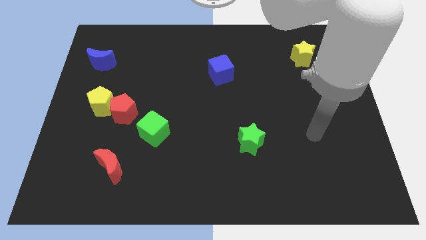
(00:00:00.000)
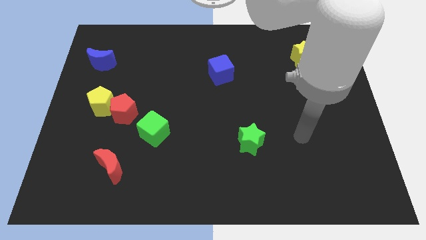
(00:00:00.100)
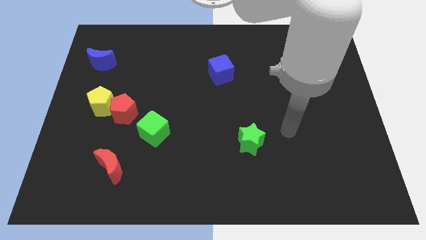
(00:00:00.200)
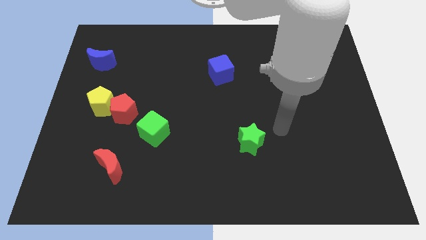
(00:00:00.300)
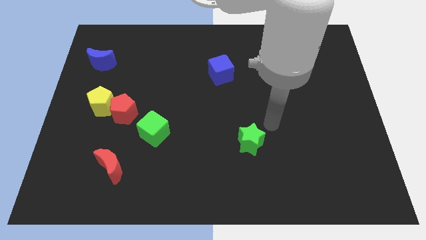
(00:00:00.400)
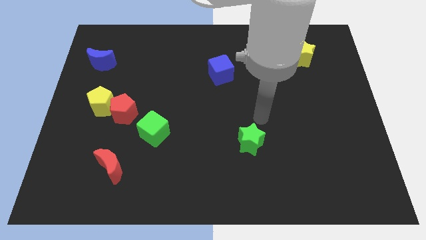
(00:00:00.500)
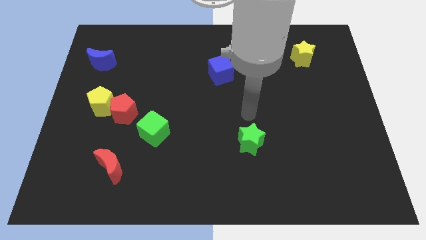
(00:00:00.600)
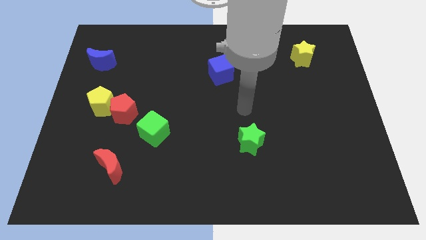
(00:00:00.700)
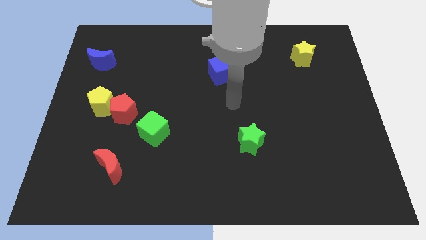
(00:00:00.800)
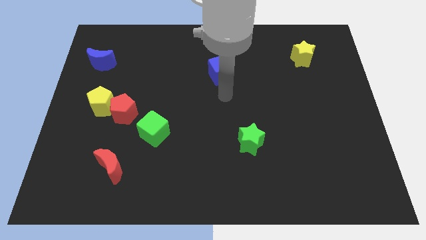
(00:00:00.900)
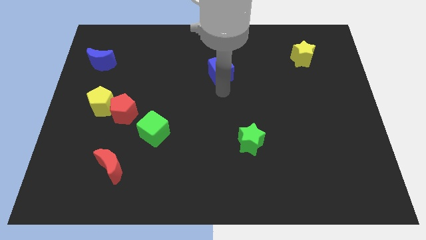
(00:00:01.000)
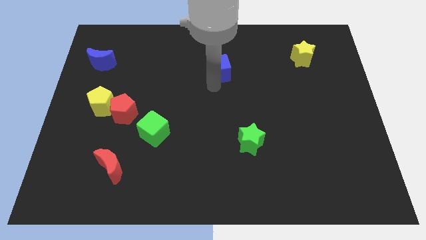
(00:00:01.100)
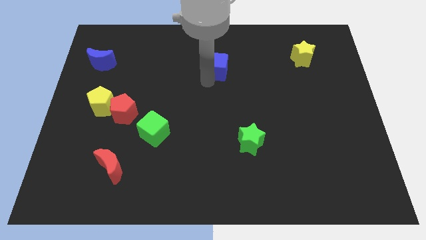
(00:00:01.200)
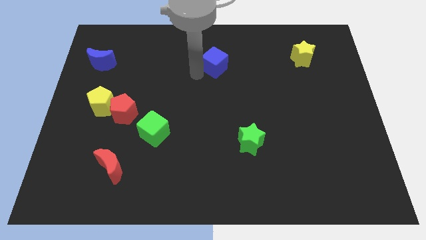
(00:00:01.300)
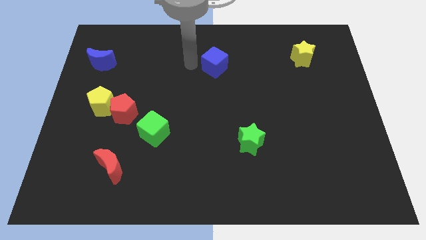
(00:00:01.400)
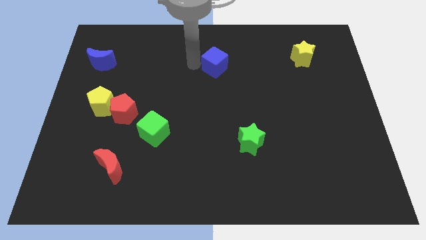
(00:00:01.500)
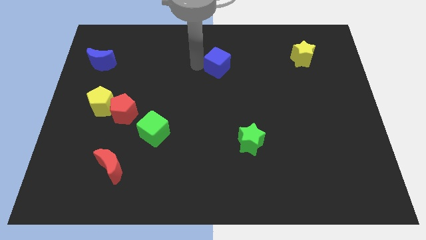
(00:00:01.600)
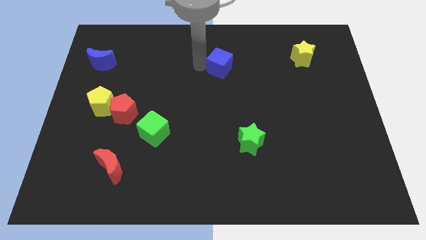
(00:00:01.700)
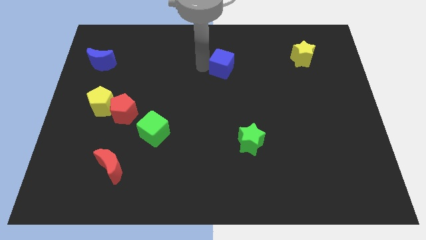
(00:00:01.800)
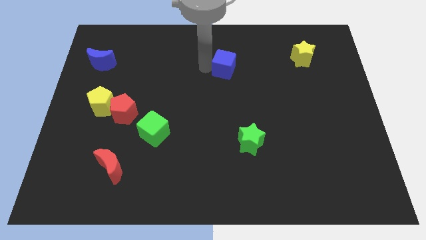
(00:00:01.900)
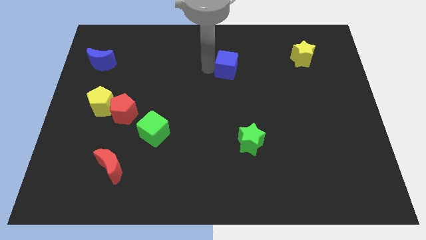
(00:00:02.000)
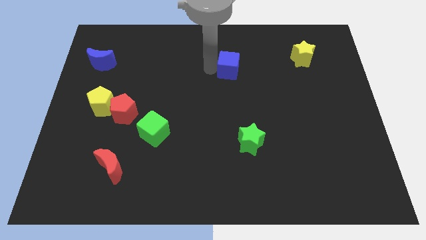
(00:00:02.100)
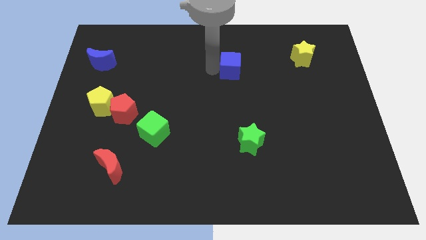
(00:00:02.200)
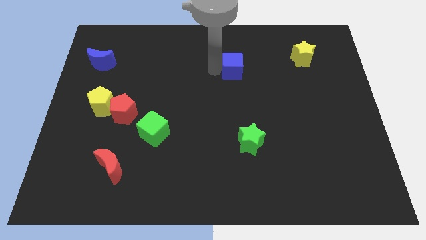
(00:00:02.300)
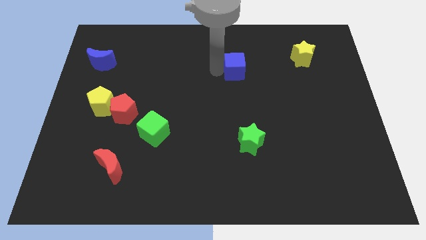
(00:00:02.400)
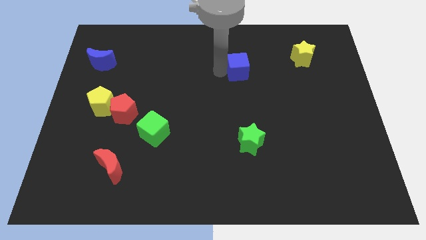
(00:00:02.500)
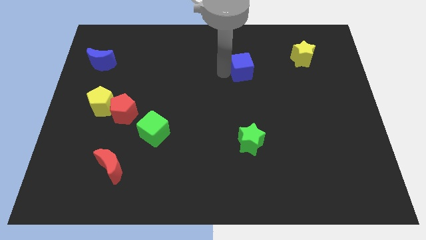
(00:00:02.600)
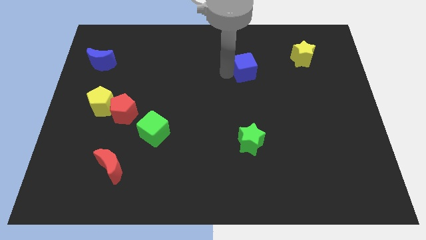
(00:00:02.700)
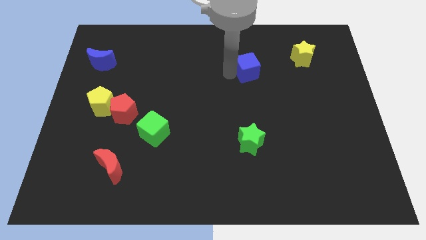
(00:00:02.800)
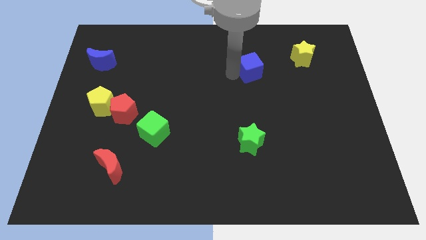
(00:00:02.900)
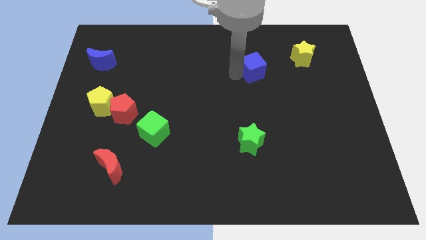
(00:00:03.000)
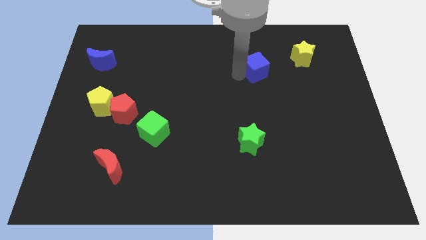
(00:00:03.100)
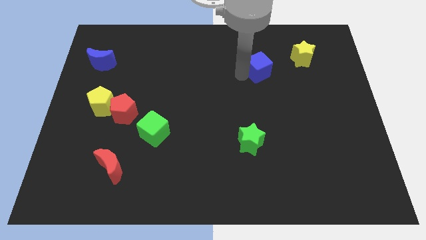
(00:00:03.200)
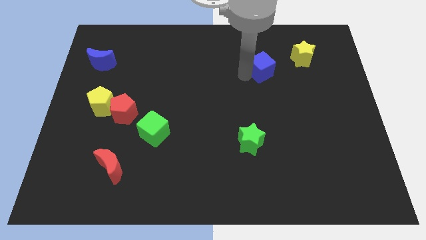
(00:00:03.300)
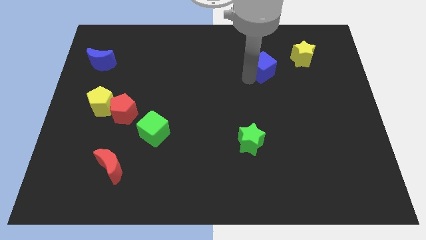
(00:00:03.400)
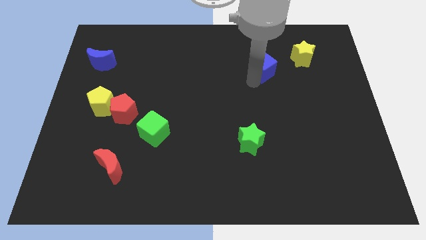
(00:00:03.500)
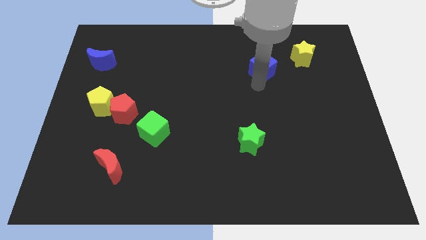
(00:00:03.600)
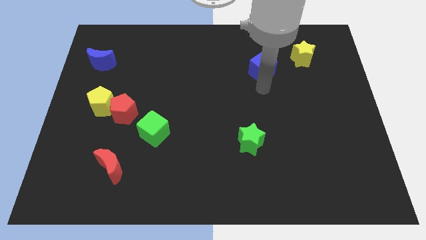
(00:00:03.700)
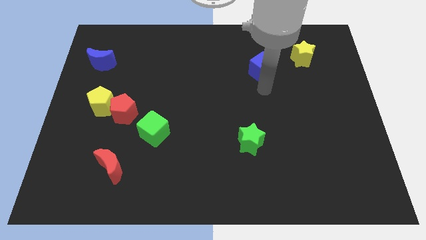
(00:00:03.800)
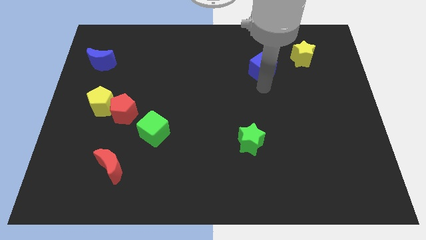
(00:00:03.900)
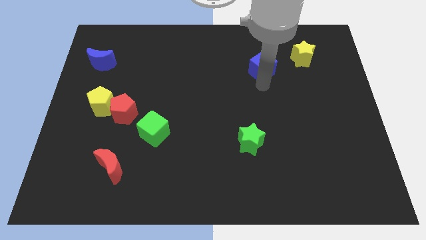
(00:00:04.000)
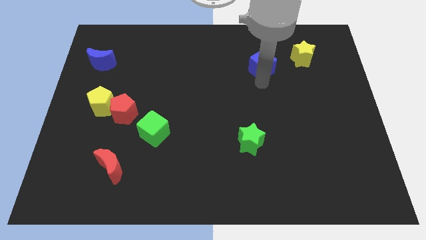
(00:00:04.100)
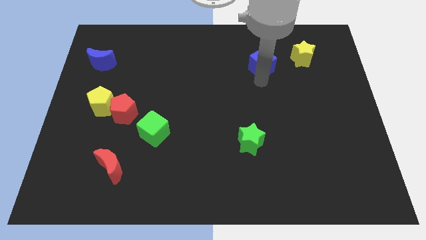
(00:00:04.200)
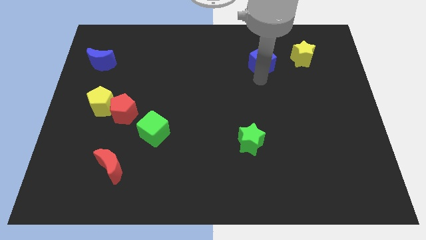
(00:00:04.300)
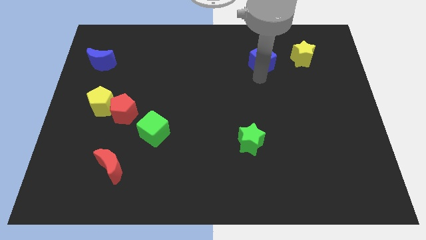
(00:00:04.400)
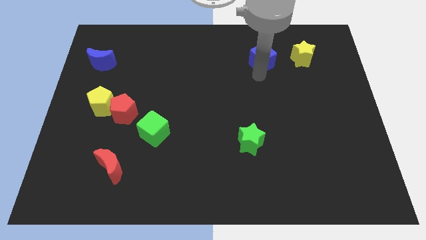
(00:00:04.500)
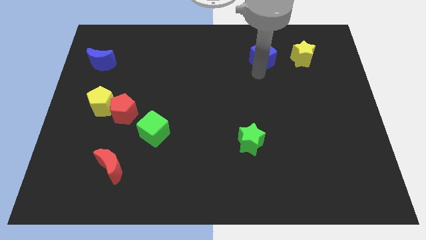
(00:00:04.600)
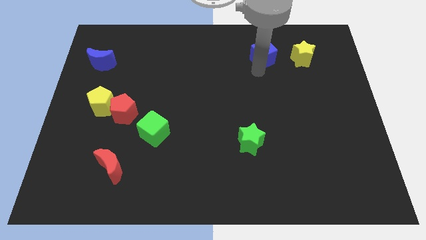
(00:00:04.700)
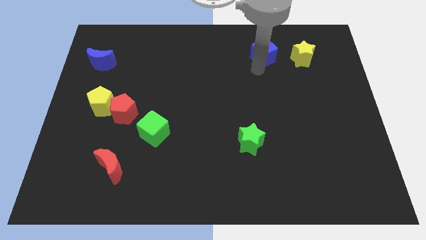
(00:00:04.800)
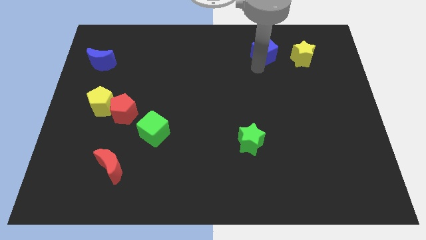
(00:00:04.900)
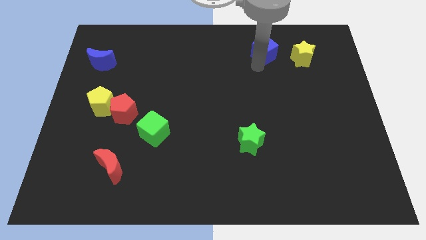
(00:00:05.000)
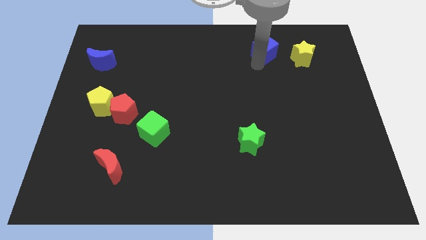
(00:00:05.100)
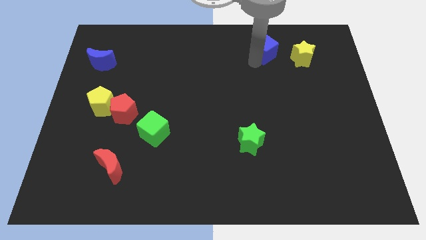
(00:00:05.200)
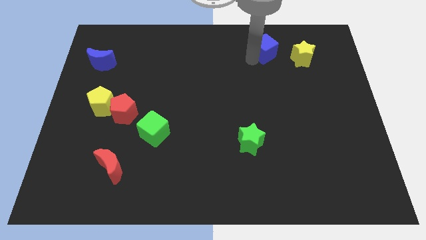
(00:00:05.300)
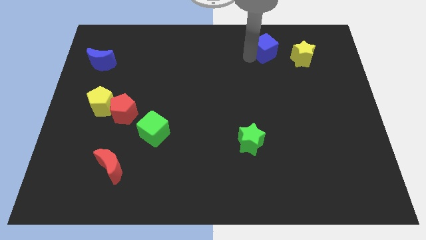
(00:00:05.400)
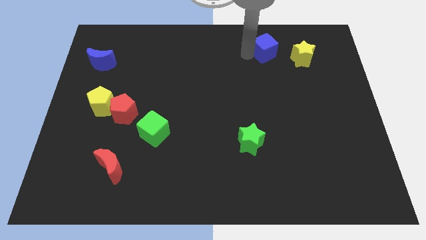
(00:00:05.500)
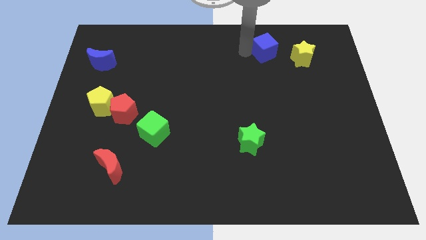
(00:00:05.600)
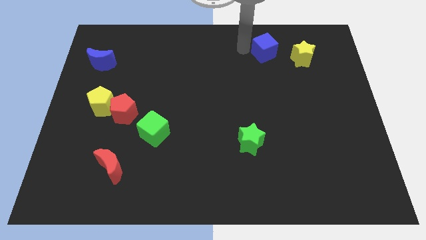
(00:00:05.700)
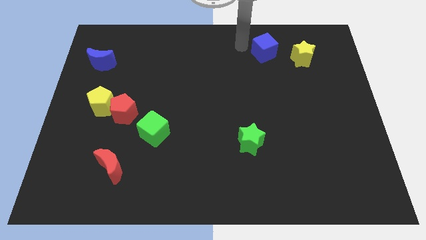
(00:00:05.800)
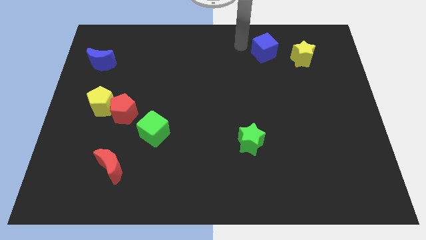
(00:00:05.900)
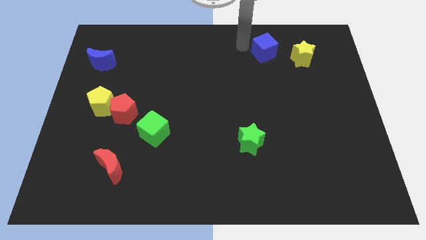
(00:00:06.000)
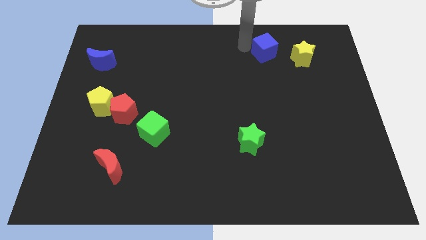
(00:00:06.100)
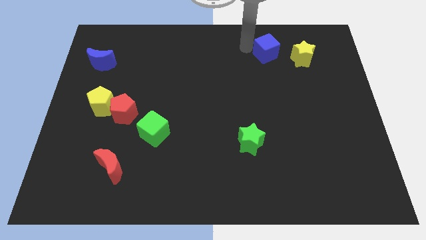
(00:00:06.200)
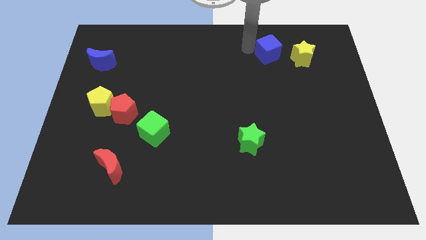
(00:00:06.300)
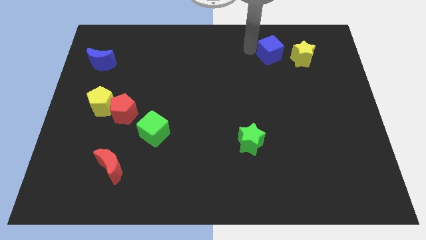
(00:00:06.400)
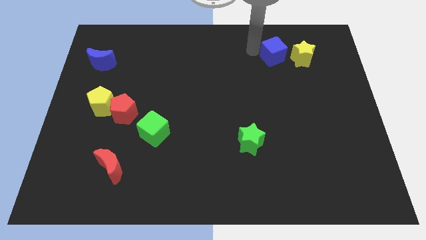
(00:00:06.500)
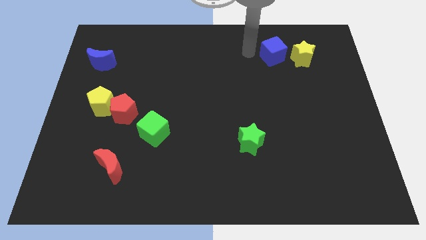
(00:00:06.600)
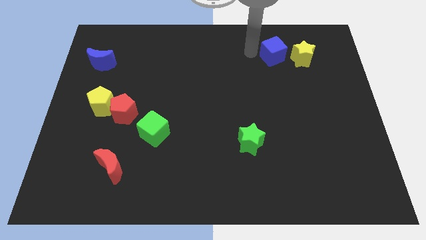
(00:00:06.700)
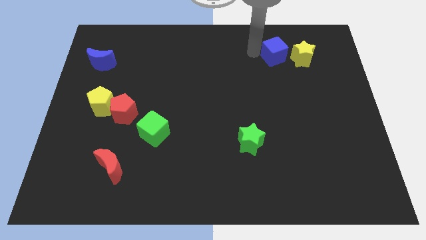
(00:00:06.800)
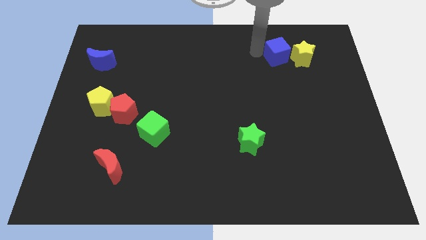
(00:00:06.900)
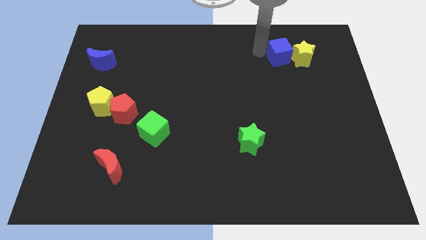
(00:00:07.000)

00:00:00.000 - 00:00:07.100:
slide the blue cube next to the yellow star

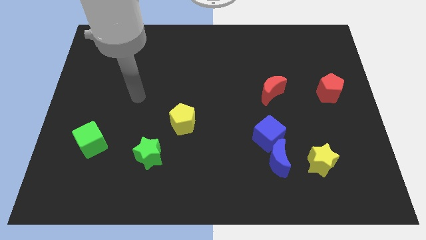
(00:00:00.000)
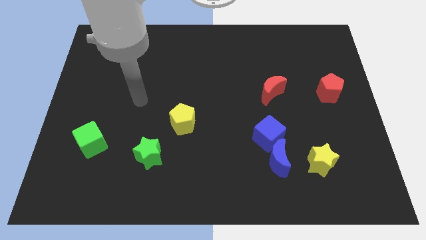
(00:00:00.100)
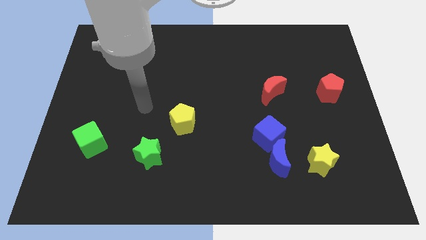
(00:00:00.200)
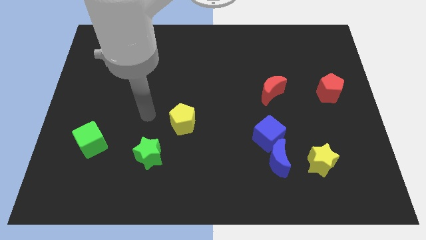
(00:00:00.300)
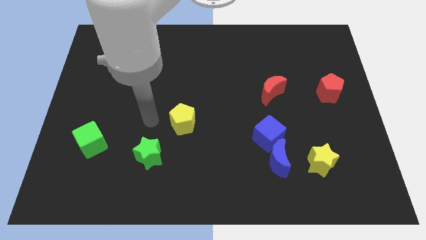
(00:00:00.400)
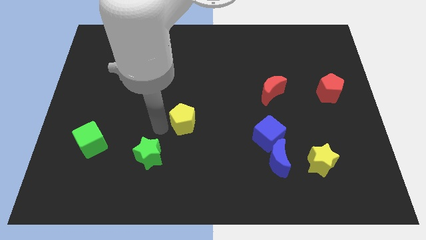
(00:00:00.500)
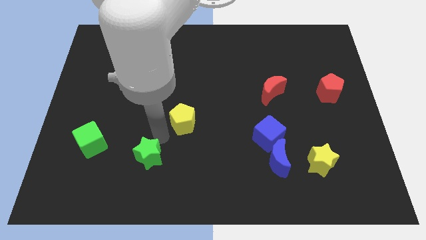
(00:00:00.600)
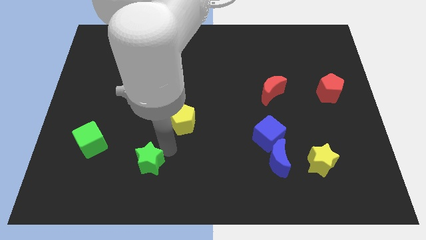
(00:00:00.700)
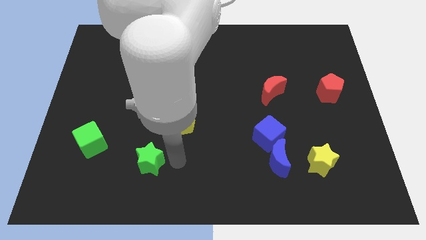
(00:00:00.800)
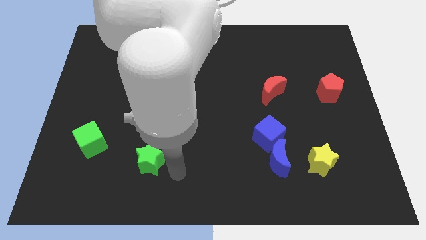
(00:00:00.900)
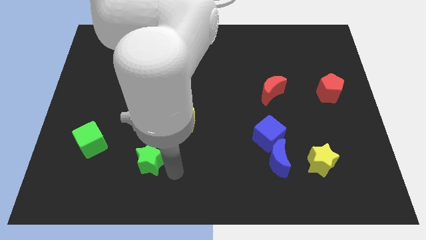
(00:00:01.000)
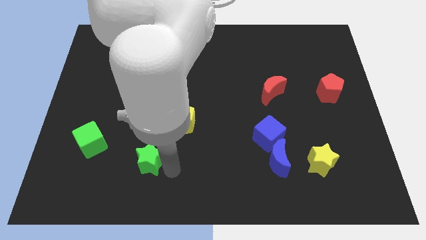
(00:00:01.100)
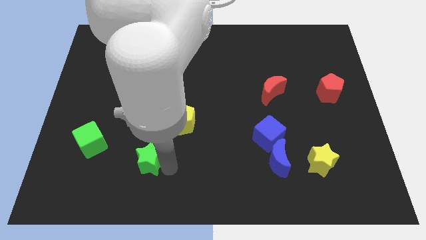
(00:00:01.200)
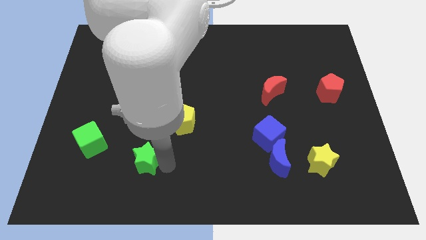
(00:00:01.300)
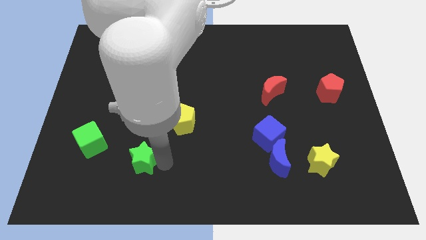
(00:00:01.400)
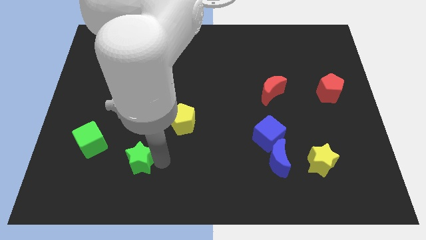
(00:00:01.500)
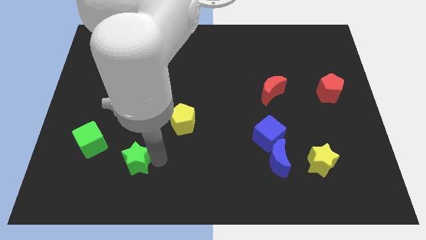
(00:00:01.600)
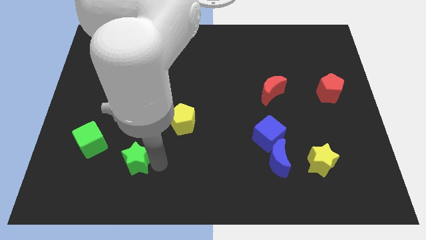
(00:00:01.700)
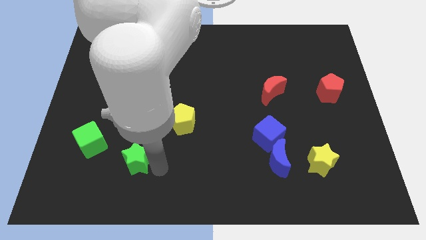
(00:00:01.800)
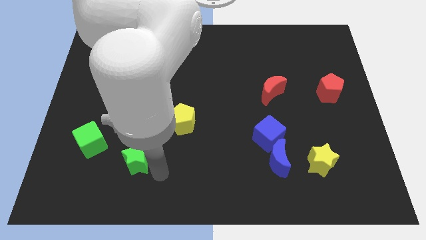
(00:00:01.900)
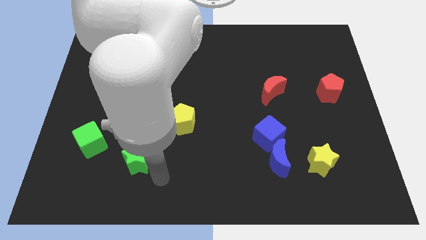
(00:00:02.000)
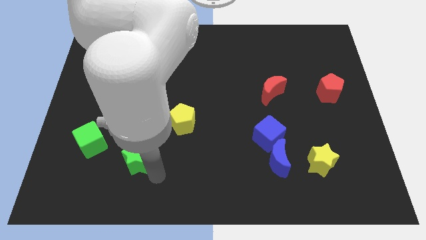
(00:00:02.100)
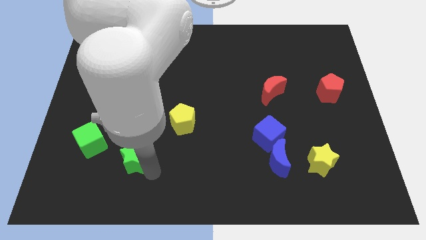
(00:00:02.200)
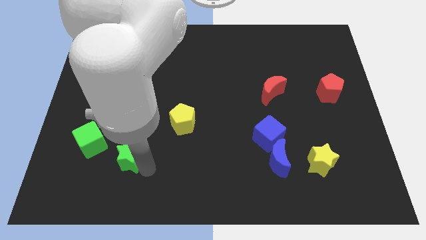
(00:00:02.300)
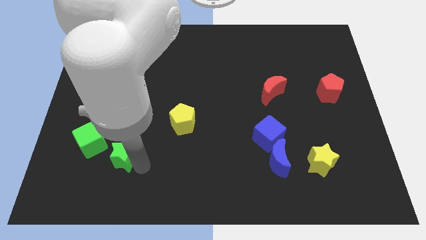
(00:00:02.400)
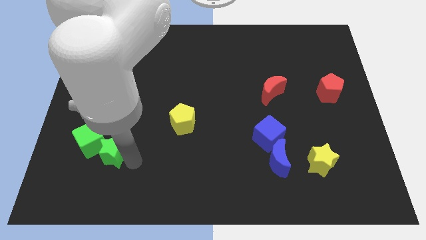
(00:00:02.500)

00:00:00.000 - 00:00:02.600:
put the green star to the green cube
